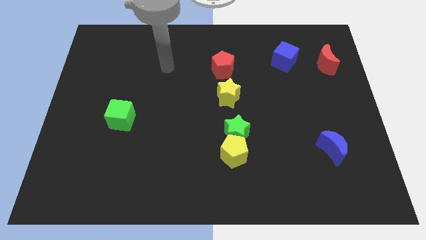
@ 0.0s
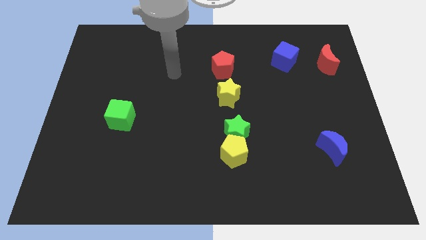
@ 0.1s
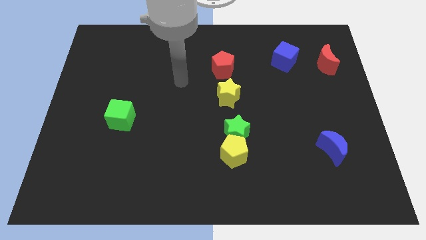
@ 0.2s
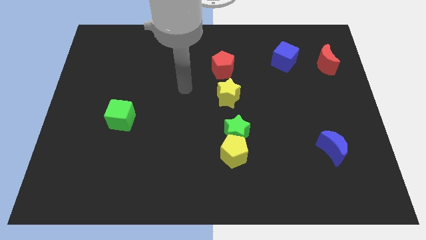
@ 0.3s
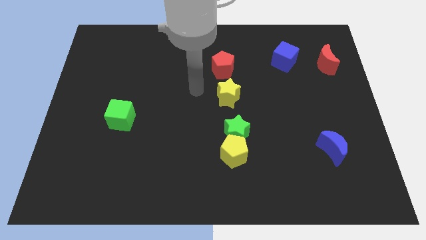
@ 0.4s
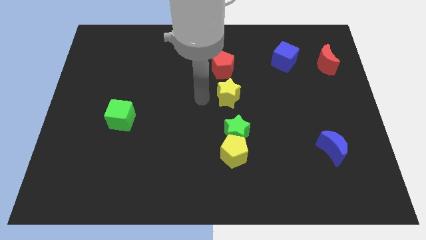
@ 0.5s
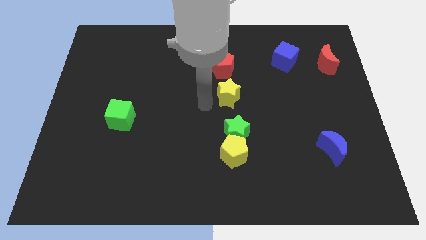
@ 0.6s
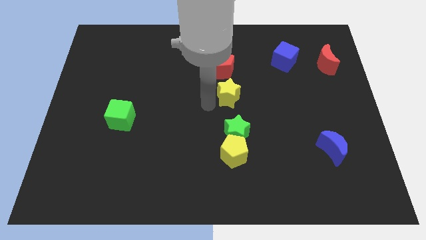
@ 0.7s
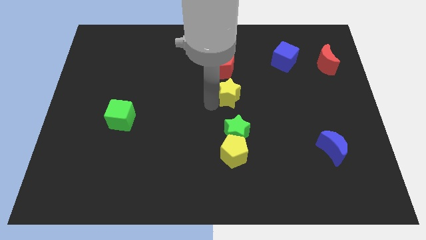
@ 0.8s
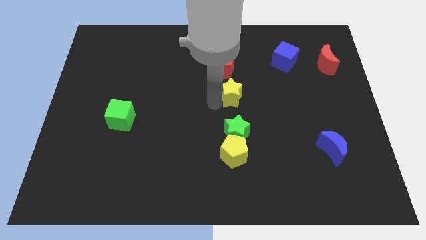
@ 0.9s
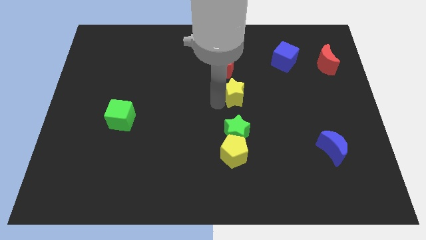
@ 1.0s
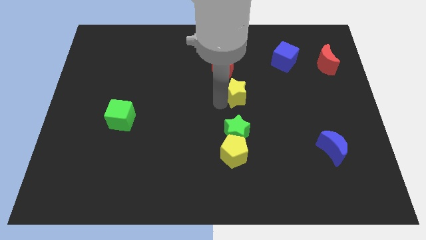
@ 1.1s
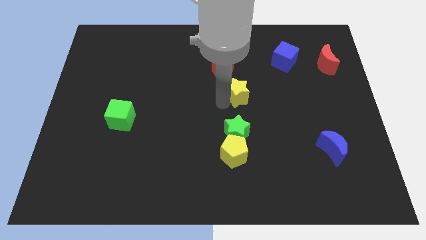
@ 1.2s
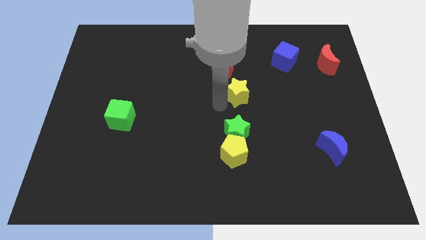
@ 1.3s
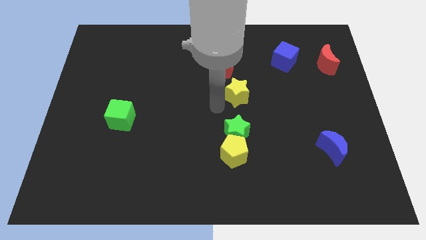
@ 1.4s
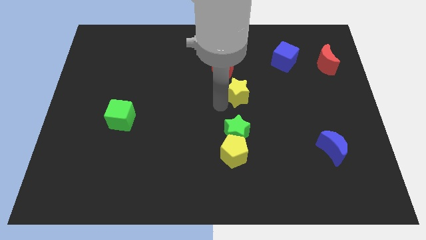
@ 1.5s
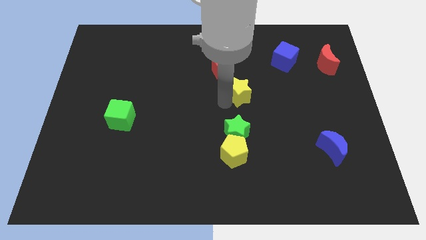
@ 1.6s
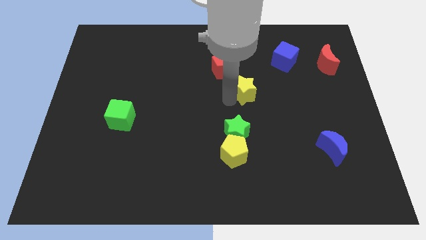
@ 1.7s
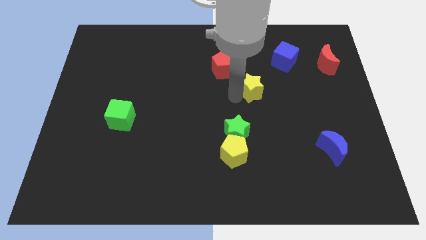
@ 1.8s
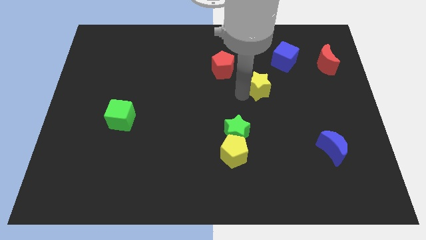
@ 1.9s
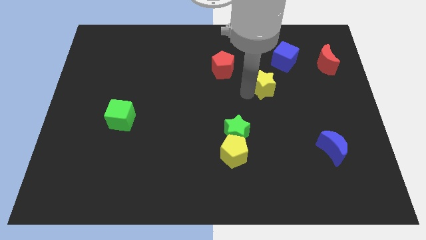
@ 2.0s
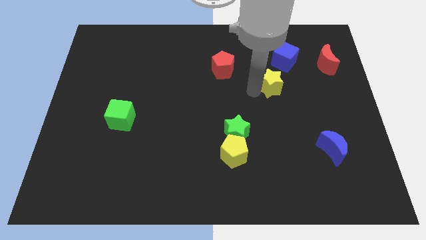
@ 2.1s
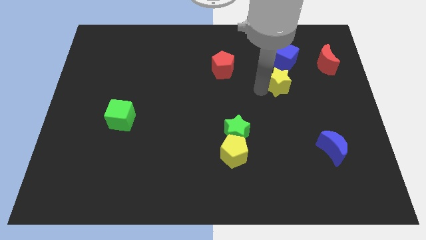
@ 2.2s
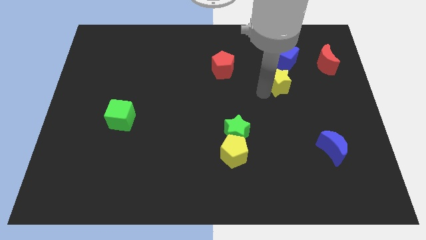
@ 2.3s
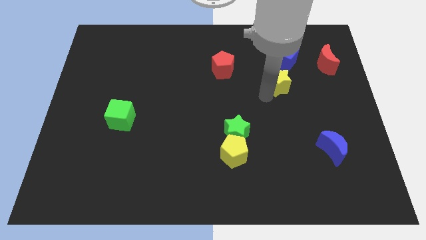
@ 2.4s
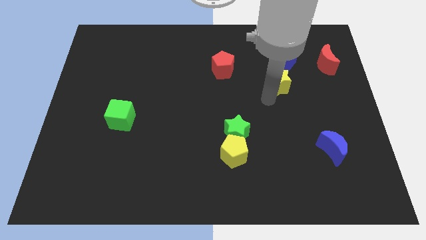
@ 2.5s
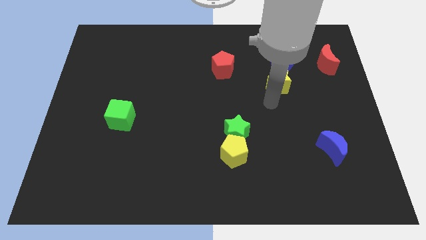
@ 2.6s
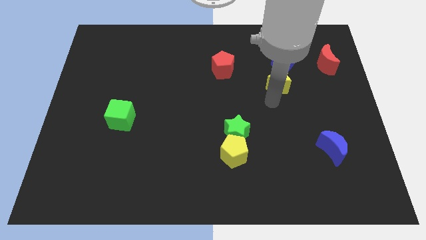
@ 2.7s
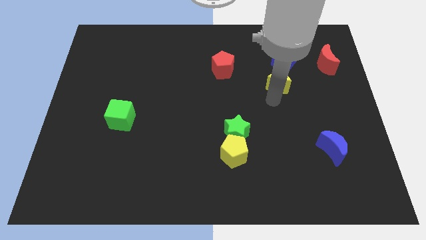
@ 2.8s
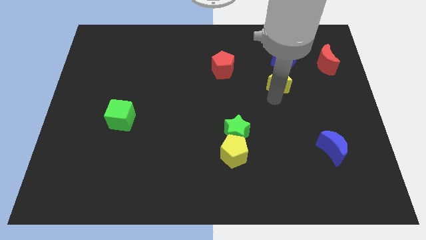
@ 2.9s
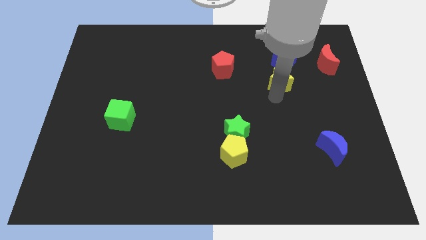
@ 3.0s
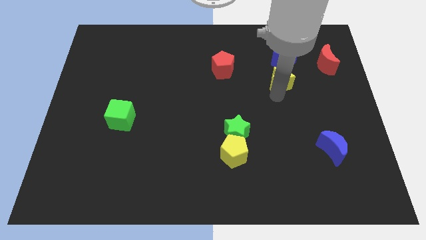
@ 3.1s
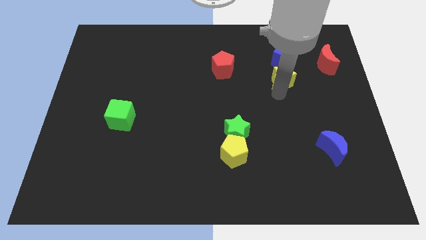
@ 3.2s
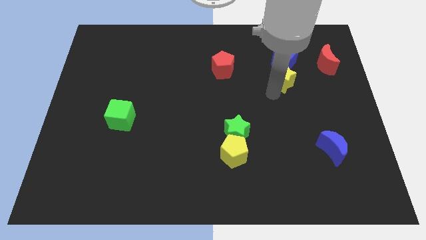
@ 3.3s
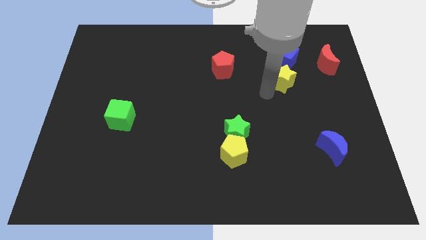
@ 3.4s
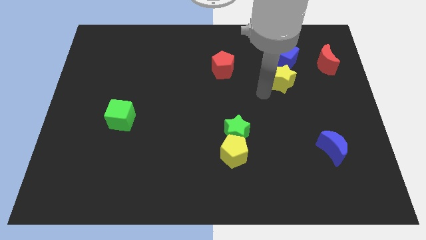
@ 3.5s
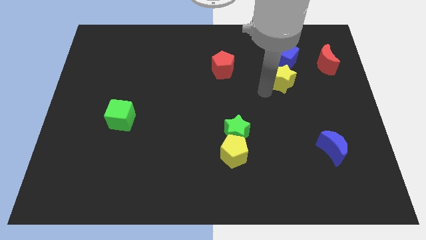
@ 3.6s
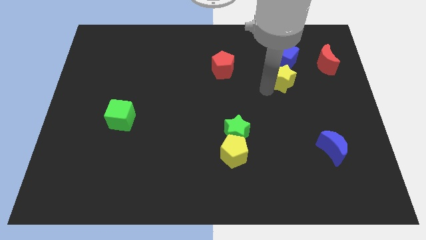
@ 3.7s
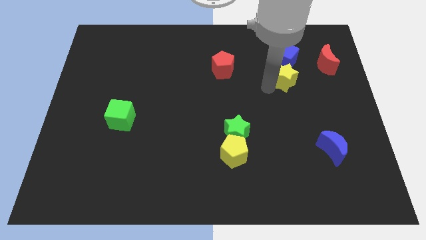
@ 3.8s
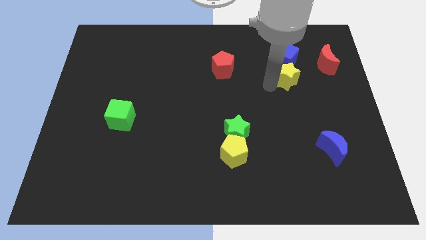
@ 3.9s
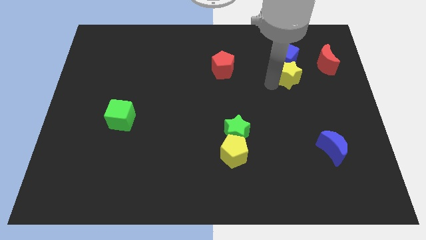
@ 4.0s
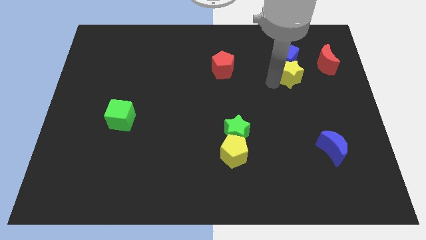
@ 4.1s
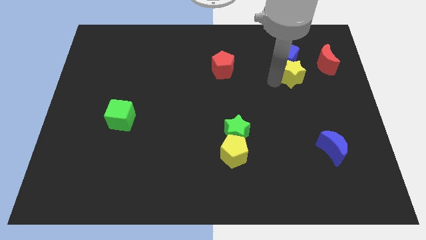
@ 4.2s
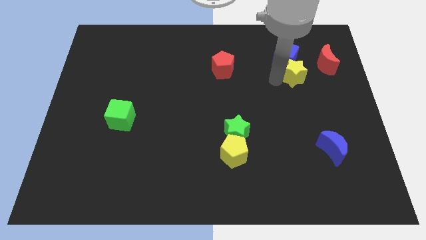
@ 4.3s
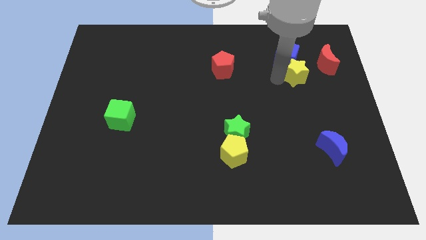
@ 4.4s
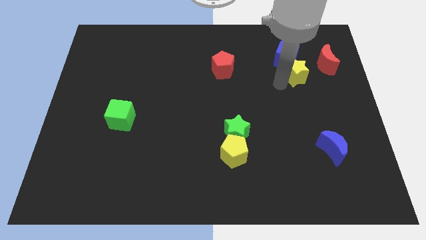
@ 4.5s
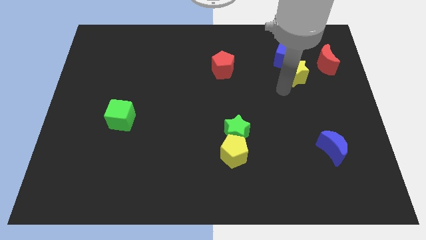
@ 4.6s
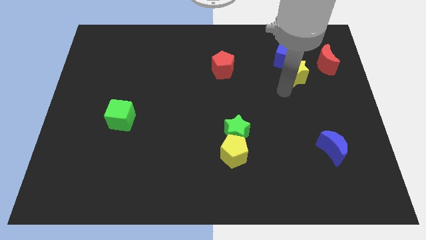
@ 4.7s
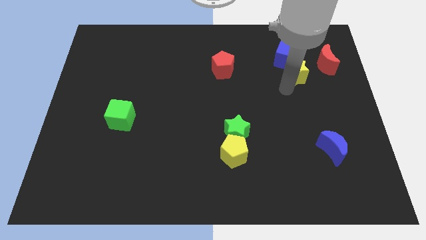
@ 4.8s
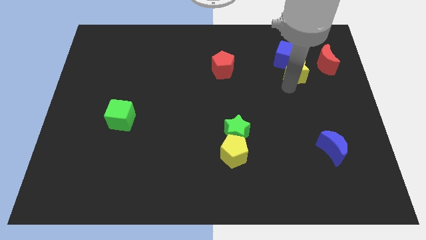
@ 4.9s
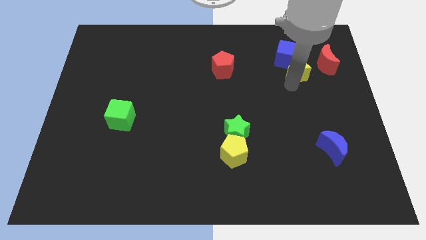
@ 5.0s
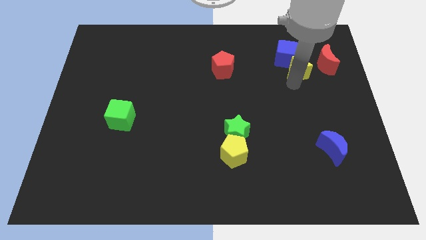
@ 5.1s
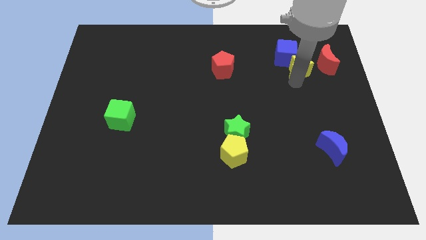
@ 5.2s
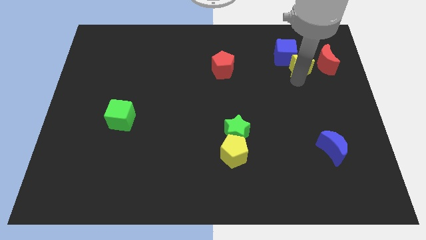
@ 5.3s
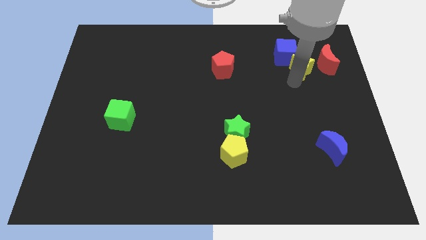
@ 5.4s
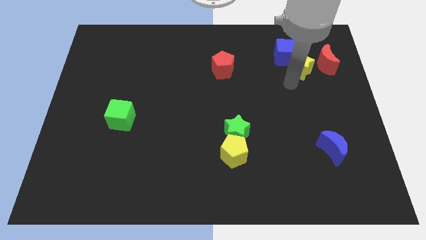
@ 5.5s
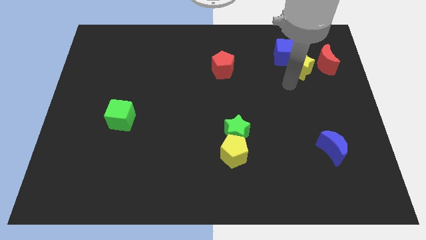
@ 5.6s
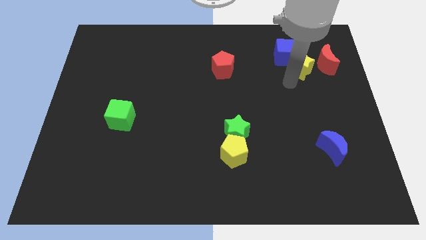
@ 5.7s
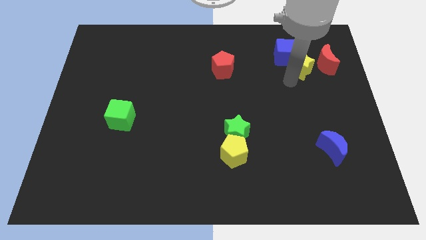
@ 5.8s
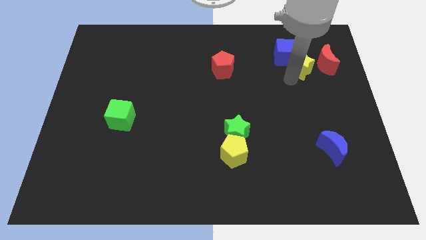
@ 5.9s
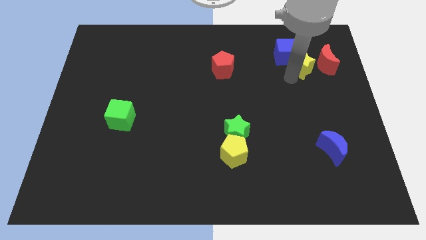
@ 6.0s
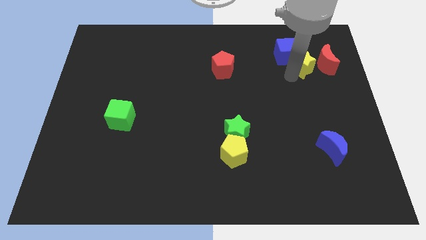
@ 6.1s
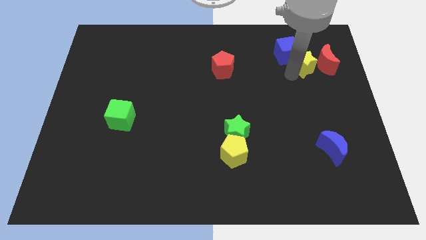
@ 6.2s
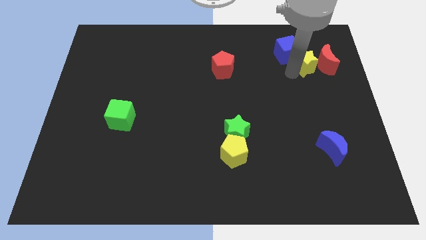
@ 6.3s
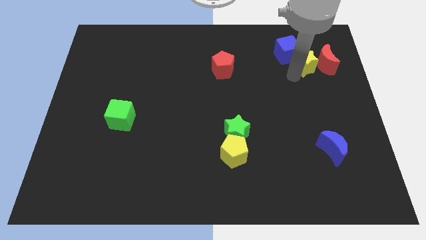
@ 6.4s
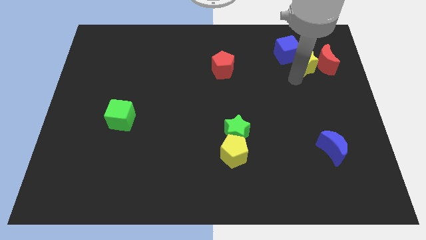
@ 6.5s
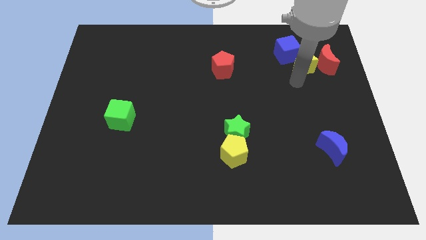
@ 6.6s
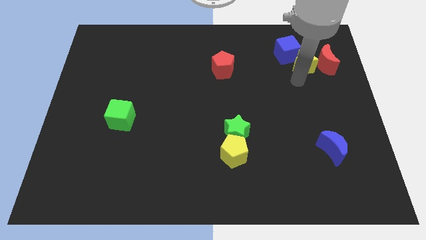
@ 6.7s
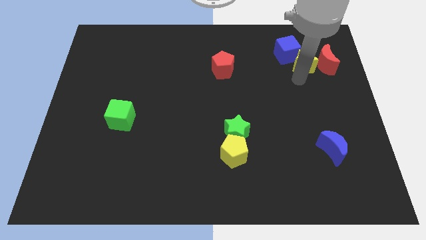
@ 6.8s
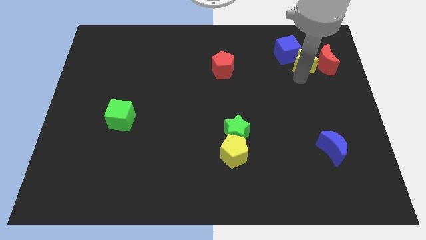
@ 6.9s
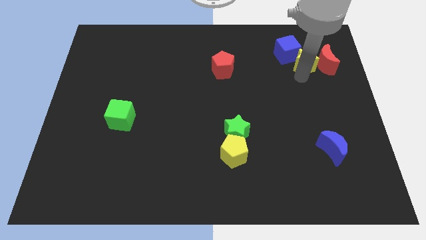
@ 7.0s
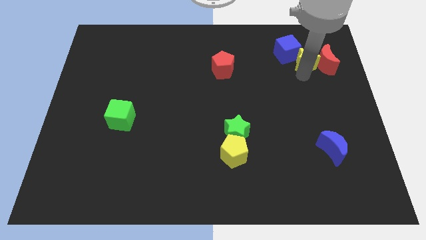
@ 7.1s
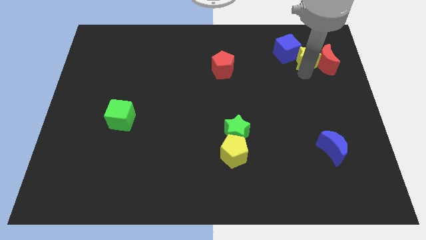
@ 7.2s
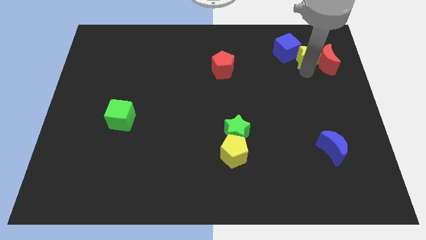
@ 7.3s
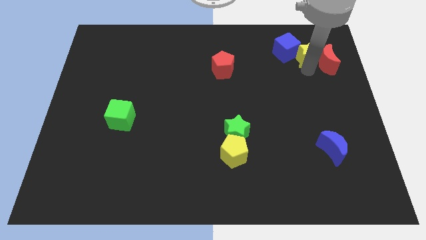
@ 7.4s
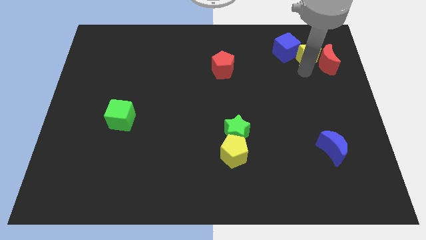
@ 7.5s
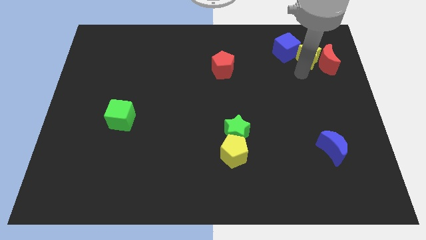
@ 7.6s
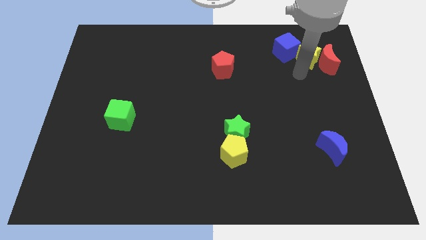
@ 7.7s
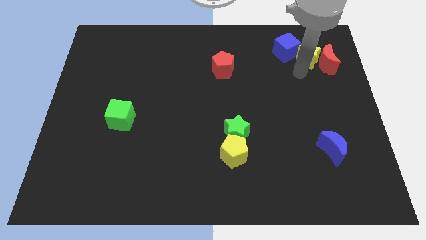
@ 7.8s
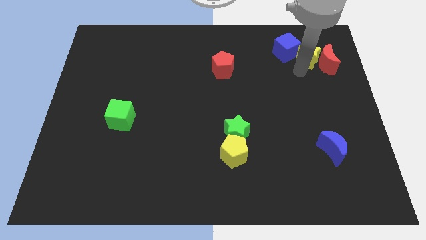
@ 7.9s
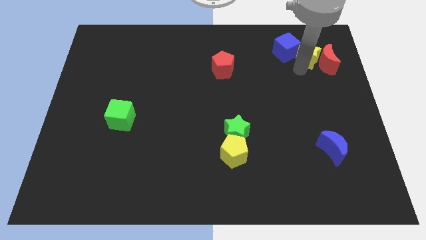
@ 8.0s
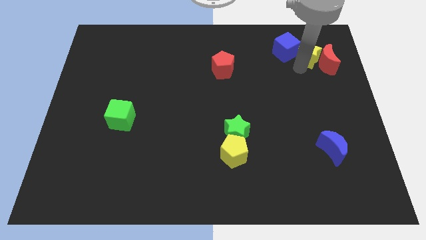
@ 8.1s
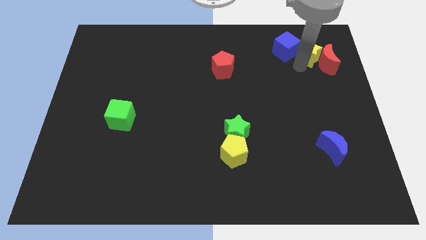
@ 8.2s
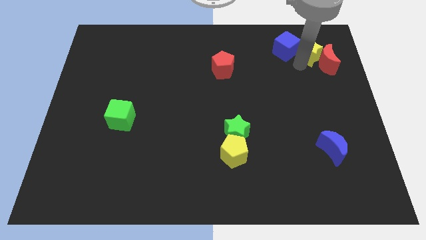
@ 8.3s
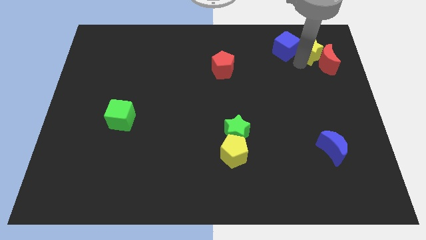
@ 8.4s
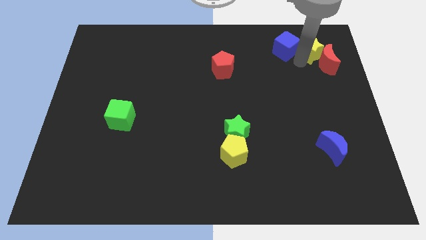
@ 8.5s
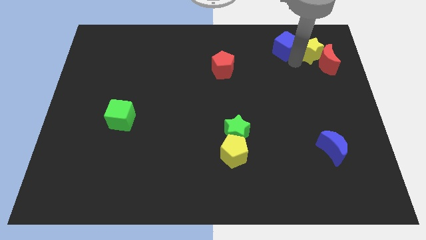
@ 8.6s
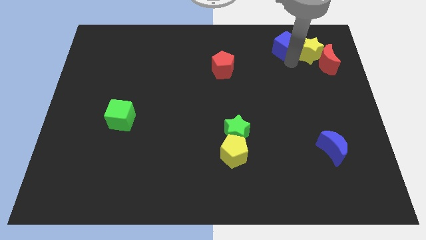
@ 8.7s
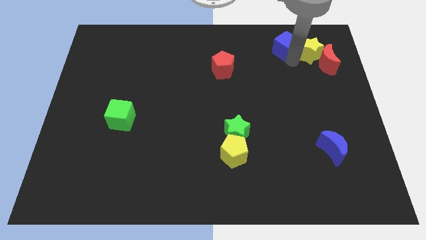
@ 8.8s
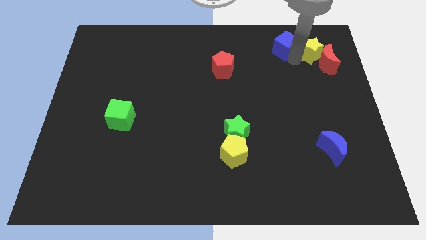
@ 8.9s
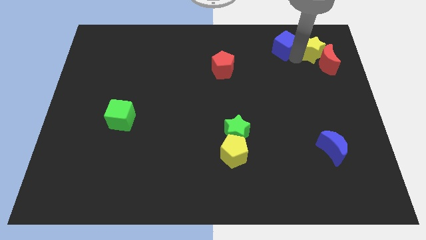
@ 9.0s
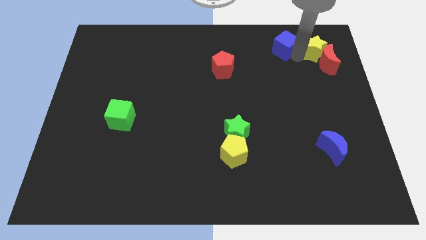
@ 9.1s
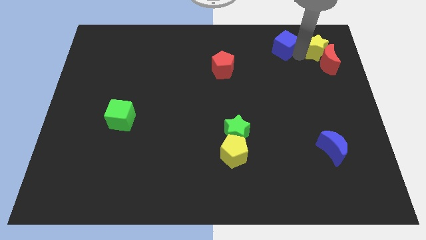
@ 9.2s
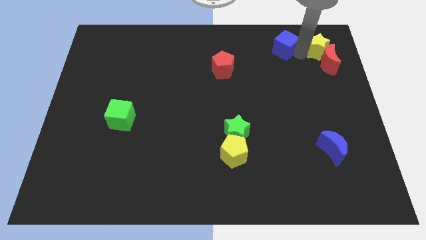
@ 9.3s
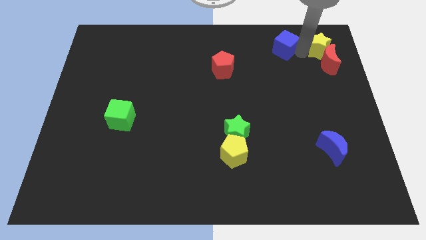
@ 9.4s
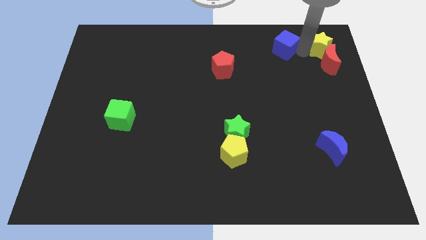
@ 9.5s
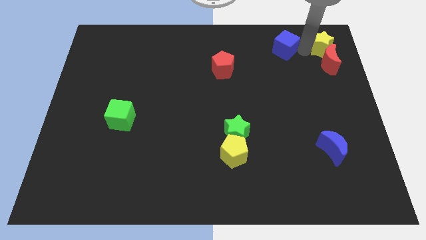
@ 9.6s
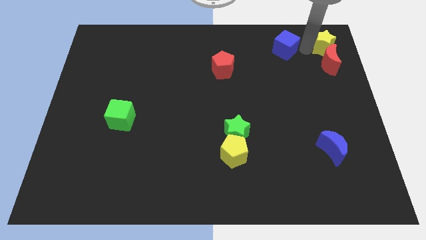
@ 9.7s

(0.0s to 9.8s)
put the yellow star to the top right
